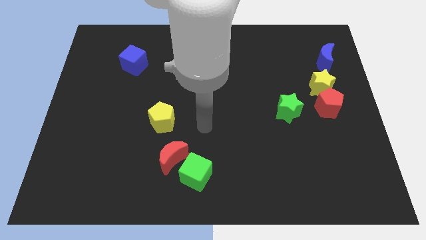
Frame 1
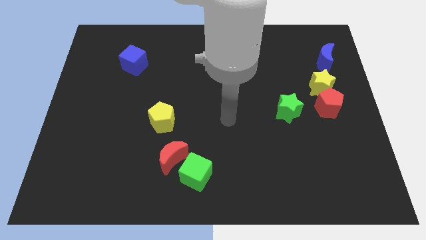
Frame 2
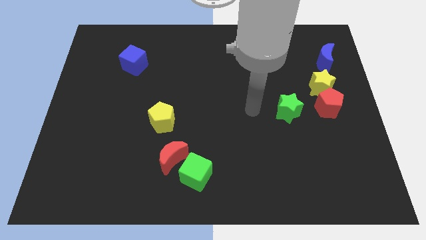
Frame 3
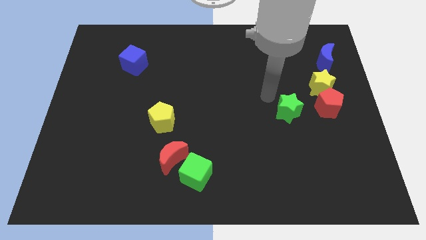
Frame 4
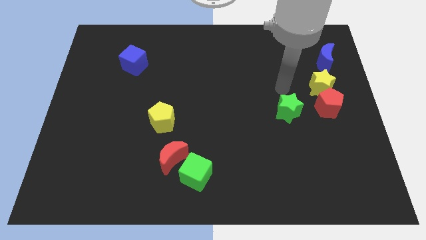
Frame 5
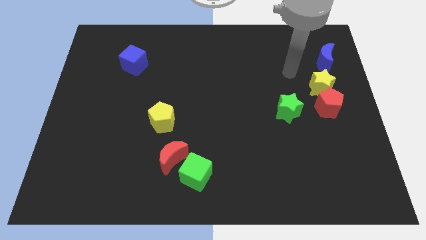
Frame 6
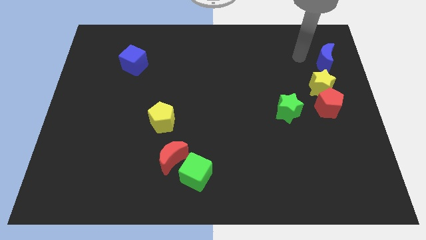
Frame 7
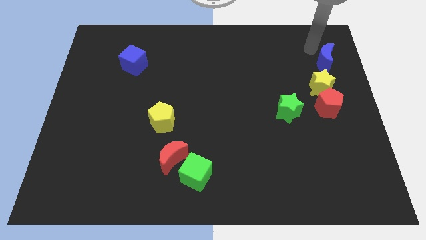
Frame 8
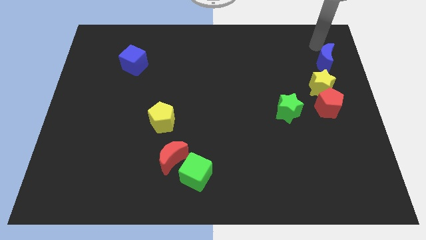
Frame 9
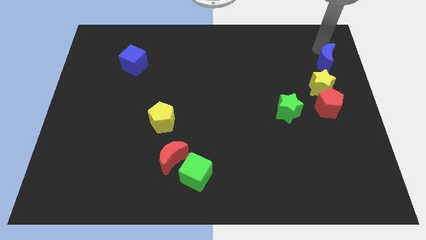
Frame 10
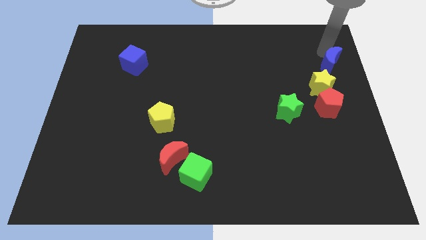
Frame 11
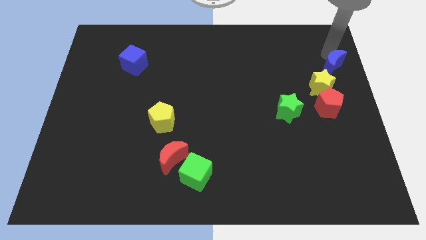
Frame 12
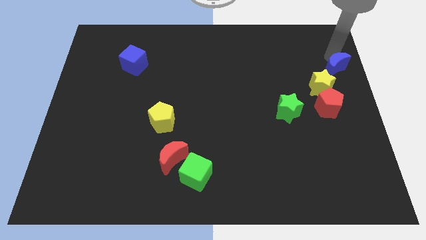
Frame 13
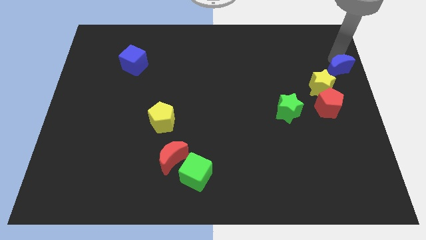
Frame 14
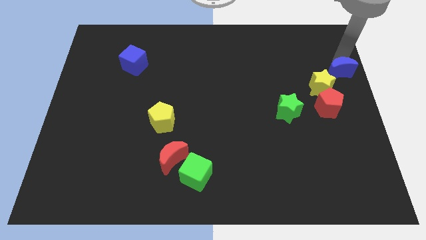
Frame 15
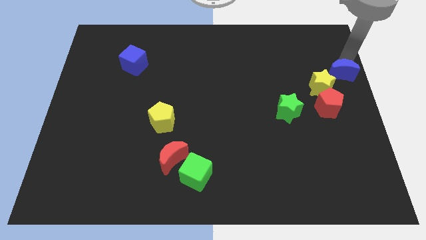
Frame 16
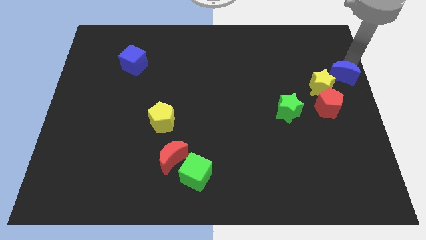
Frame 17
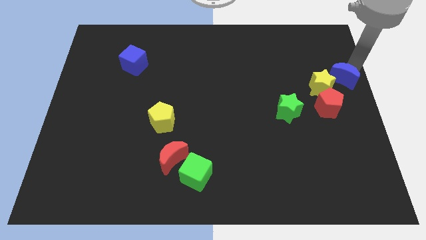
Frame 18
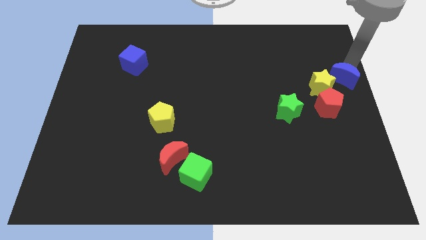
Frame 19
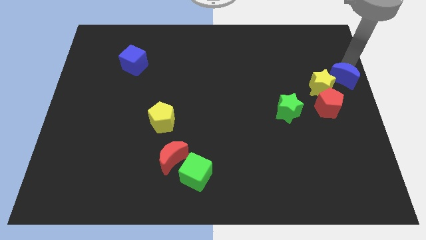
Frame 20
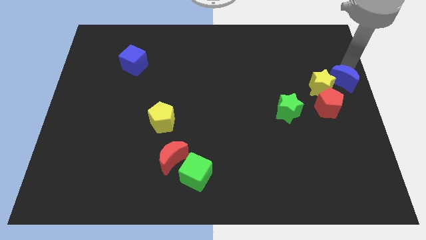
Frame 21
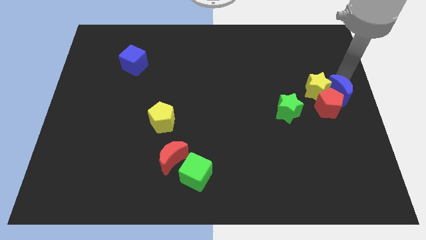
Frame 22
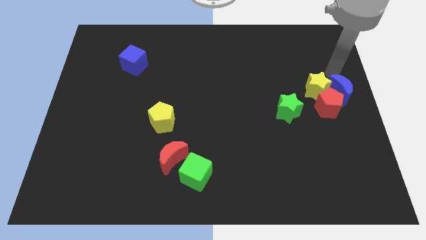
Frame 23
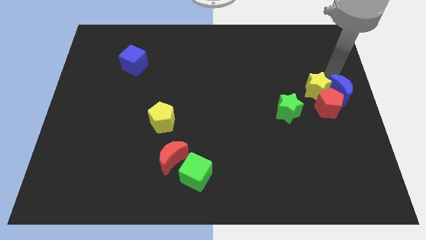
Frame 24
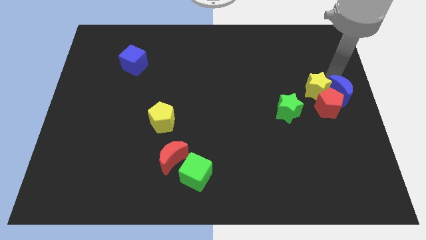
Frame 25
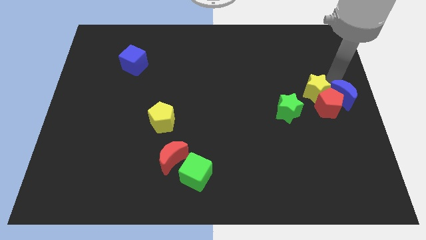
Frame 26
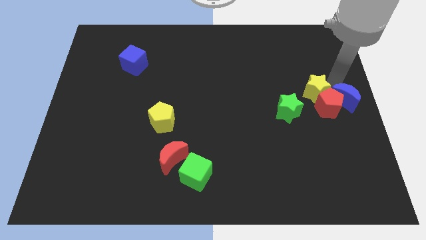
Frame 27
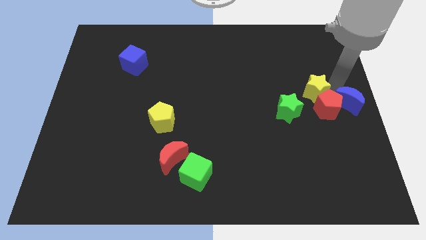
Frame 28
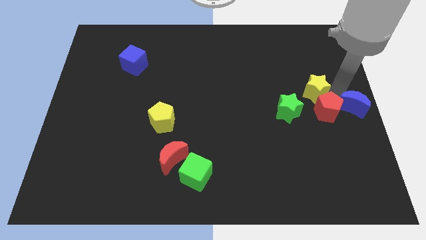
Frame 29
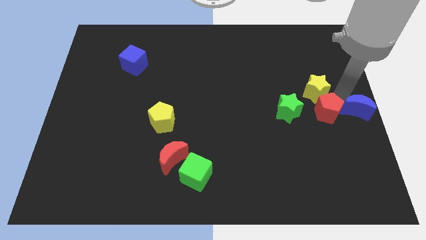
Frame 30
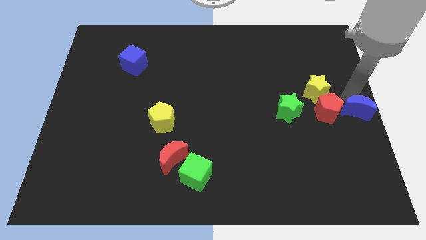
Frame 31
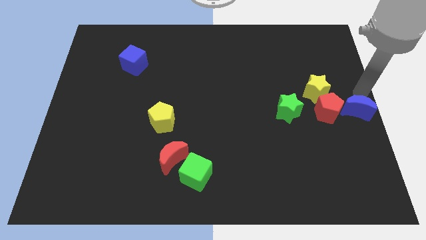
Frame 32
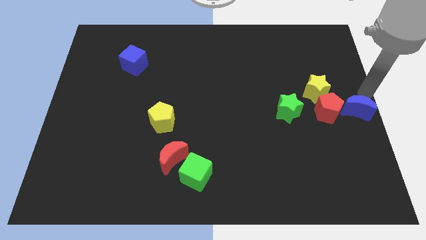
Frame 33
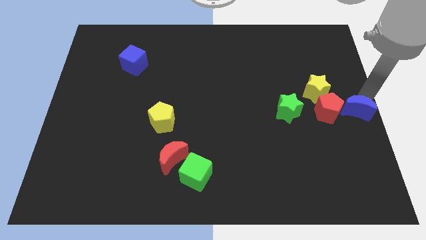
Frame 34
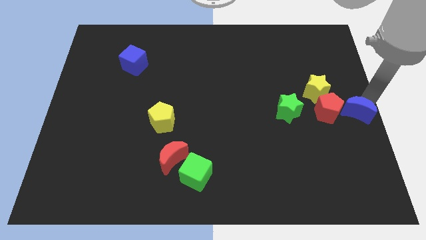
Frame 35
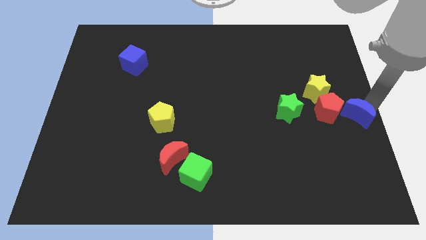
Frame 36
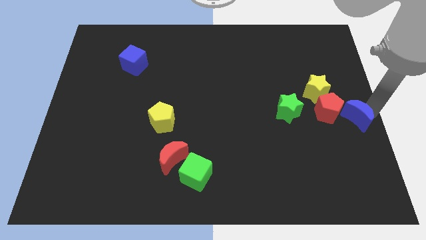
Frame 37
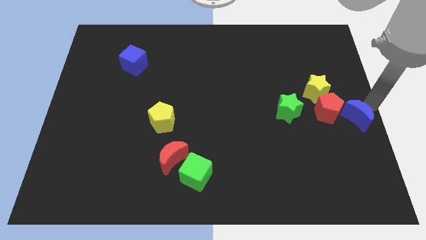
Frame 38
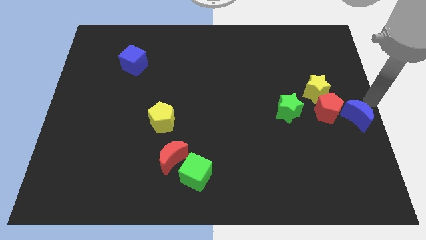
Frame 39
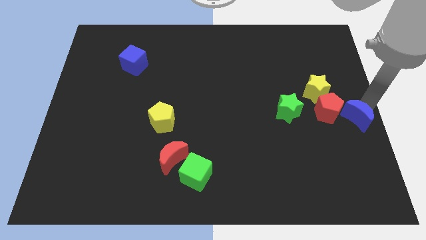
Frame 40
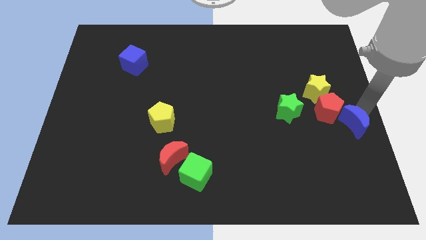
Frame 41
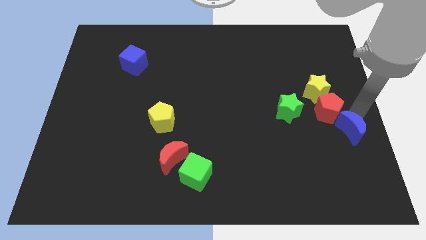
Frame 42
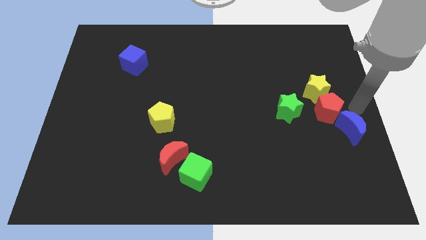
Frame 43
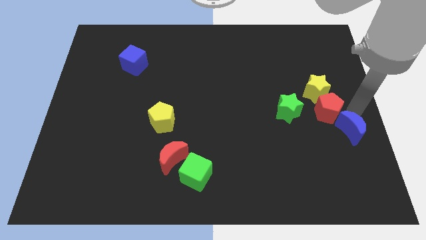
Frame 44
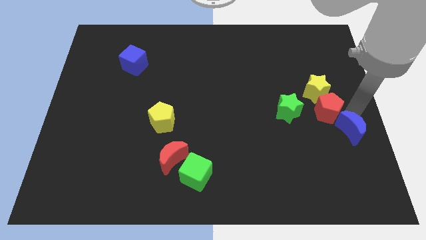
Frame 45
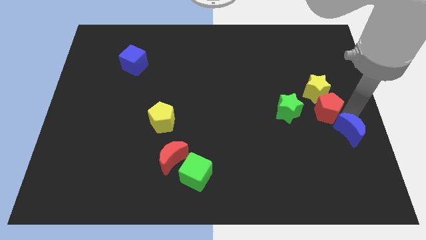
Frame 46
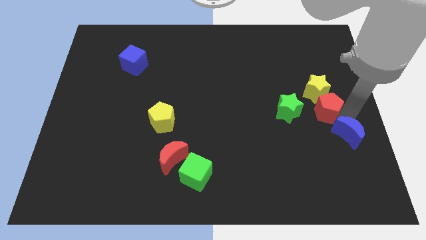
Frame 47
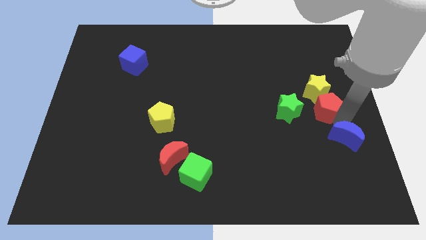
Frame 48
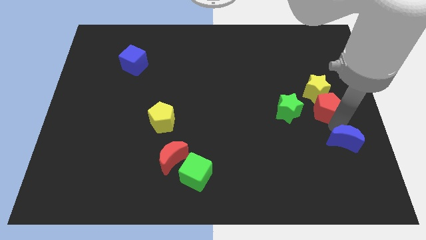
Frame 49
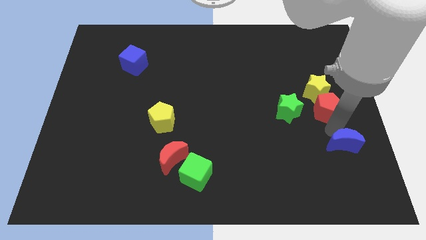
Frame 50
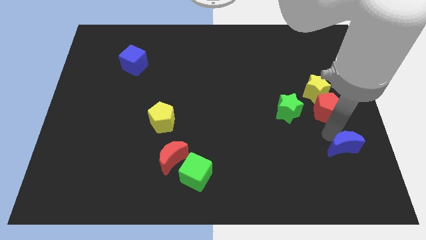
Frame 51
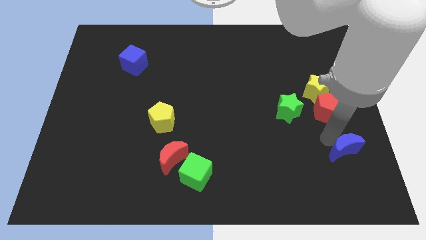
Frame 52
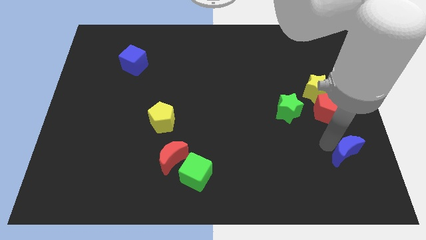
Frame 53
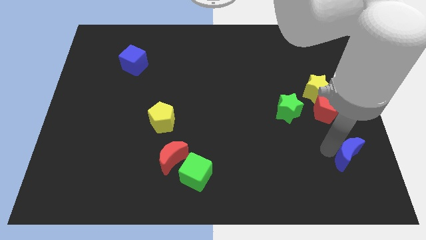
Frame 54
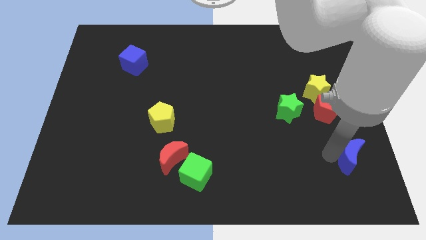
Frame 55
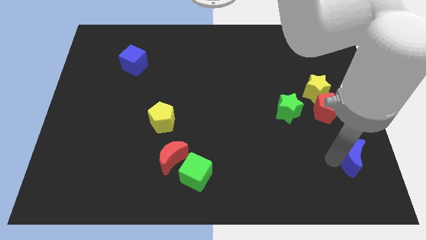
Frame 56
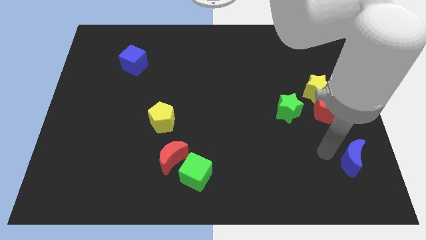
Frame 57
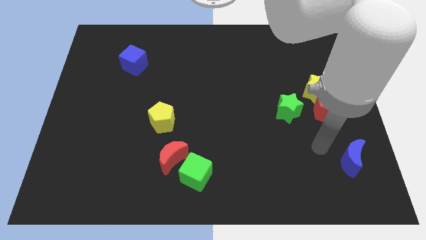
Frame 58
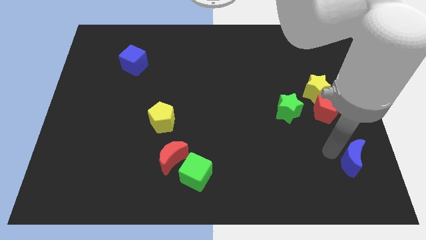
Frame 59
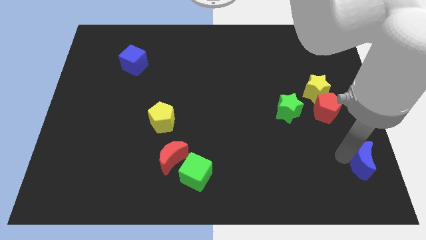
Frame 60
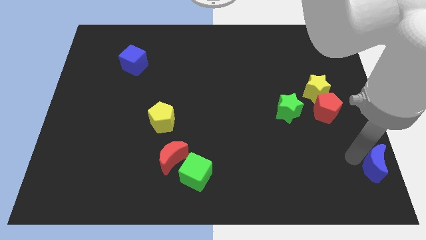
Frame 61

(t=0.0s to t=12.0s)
push the blue moon to the bottom right of the board
